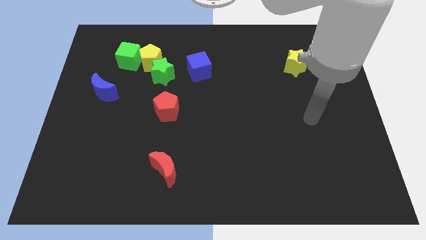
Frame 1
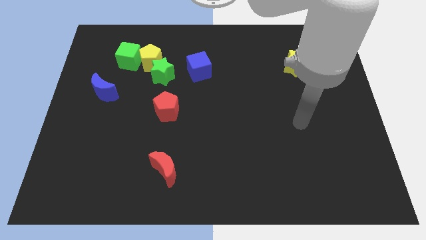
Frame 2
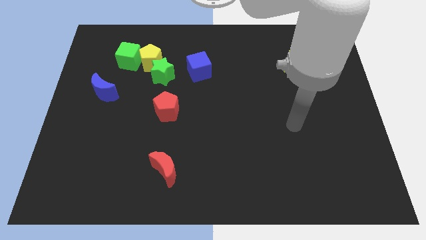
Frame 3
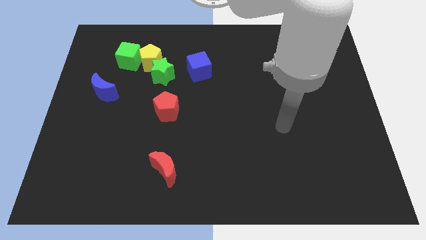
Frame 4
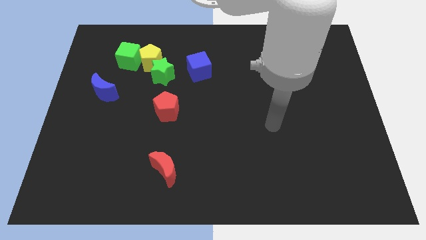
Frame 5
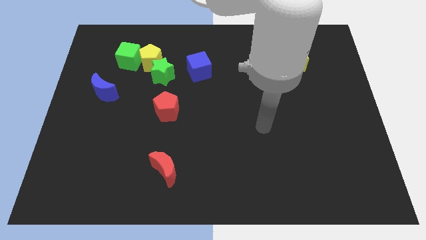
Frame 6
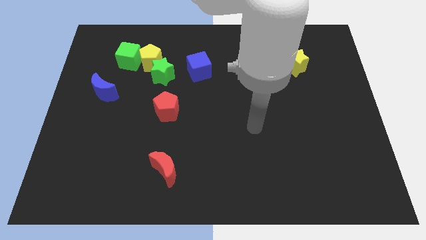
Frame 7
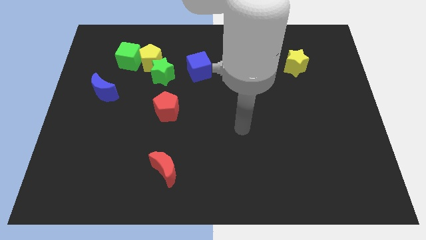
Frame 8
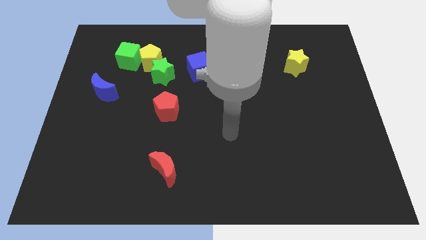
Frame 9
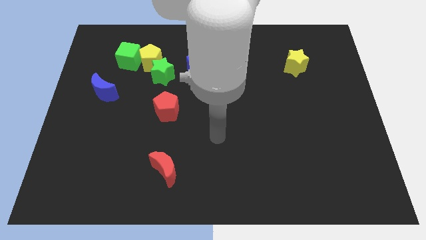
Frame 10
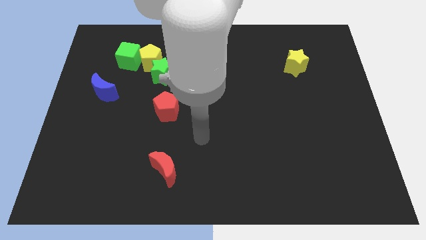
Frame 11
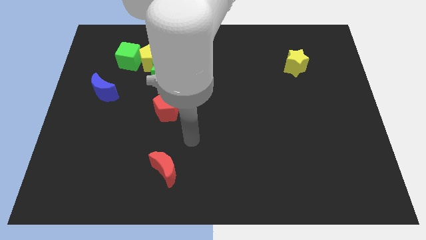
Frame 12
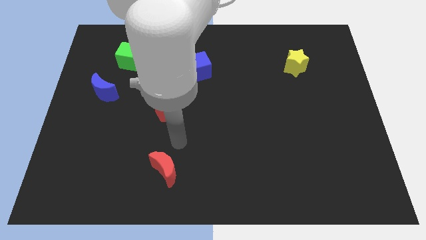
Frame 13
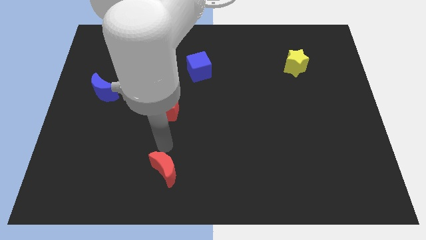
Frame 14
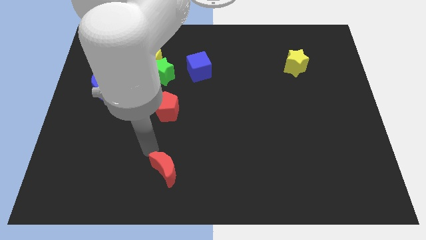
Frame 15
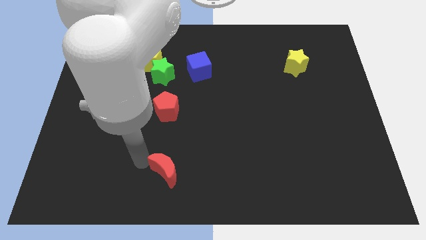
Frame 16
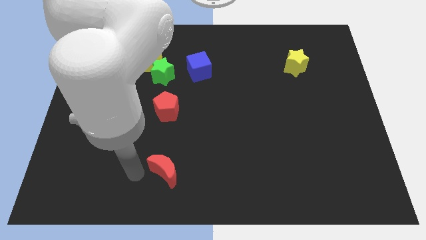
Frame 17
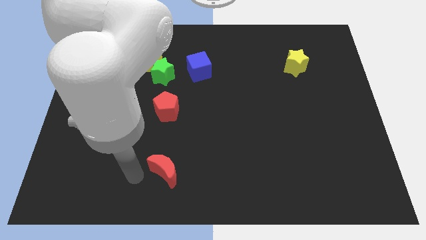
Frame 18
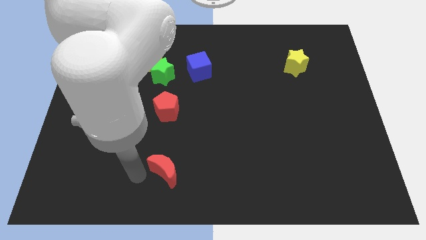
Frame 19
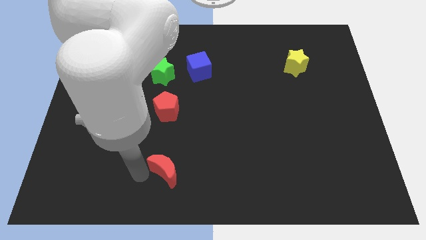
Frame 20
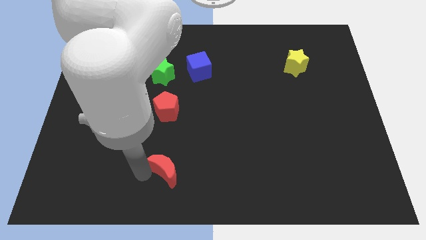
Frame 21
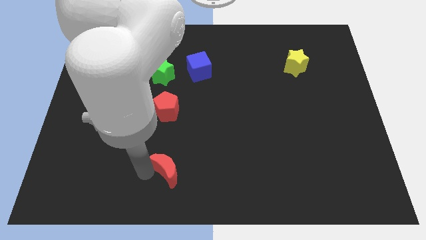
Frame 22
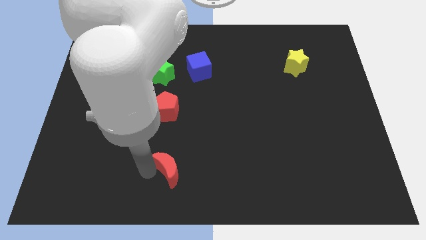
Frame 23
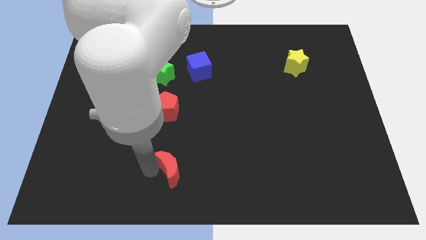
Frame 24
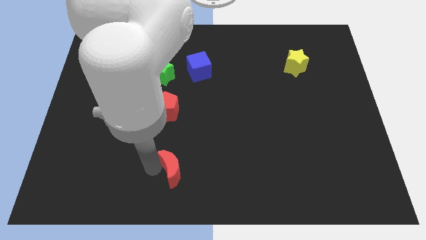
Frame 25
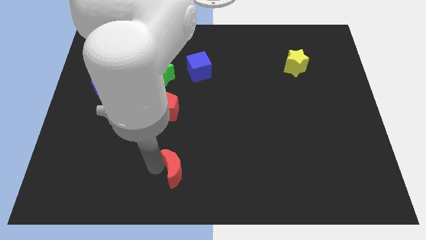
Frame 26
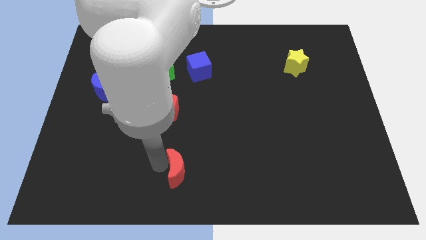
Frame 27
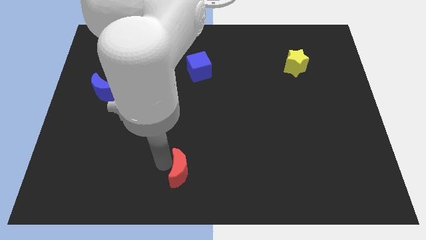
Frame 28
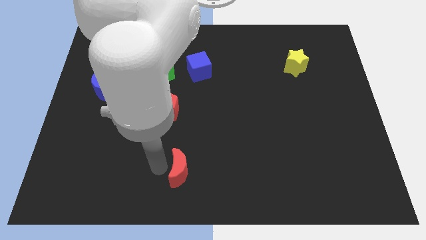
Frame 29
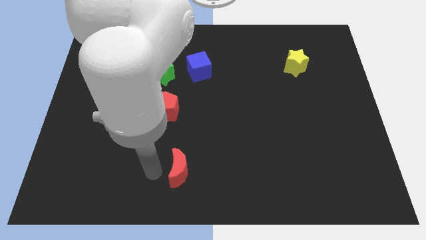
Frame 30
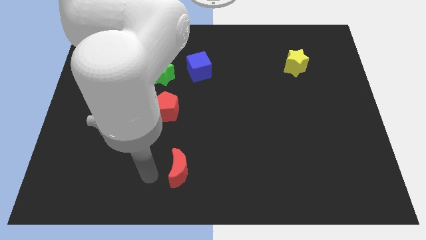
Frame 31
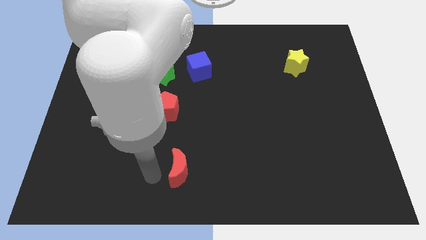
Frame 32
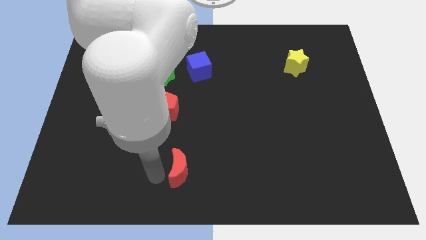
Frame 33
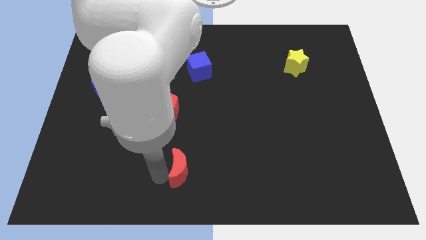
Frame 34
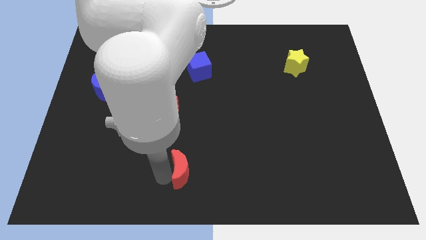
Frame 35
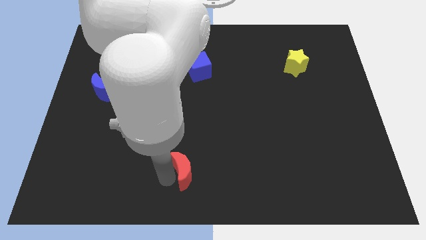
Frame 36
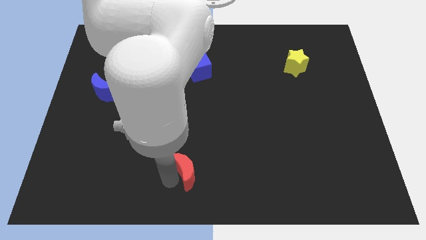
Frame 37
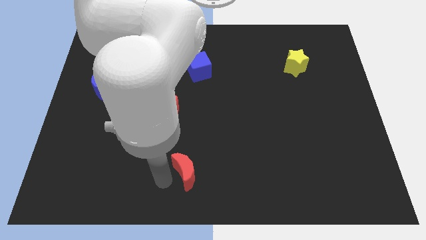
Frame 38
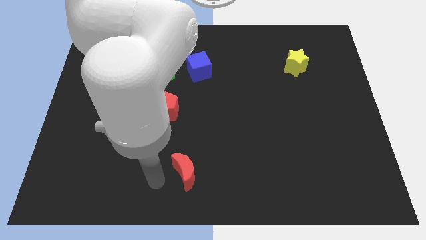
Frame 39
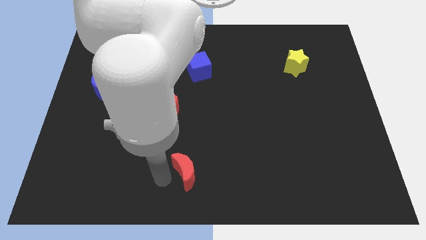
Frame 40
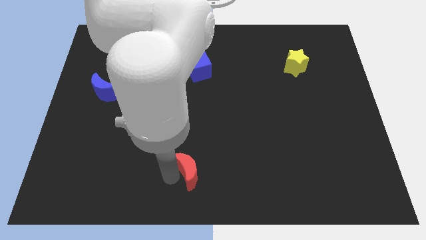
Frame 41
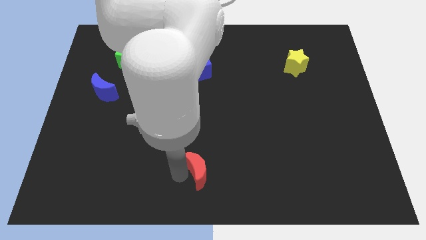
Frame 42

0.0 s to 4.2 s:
slide the red moon somewhat right

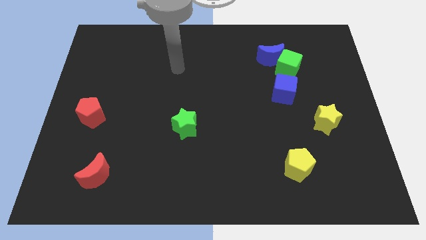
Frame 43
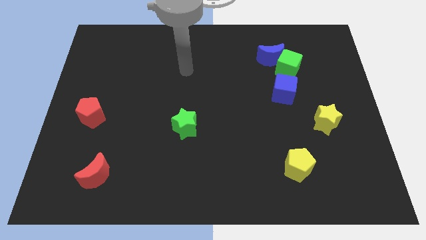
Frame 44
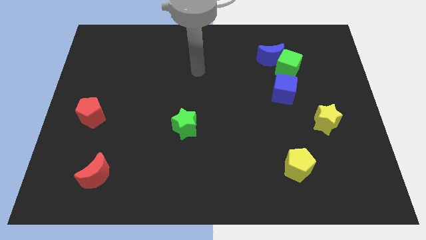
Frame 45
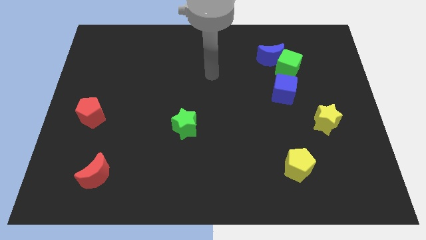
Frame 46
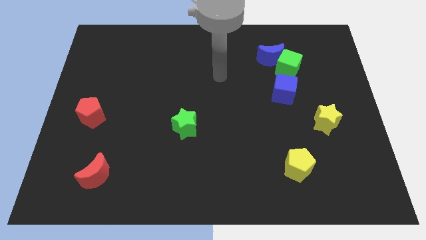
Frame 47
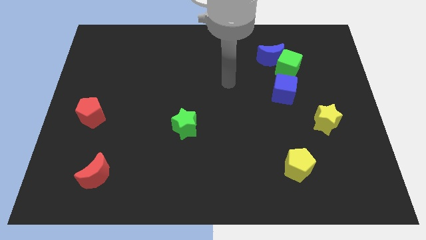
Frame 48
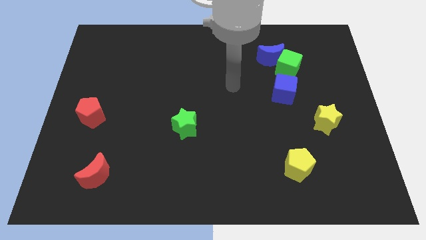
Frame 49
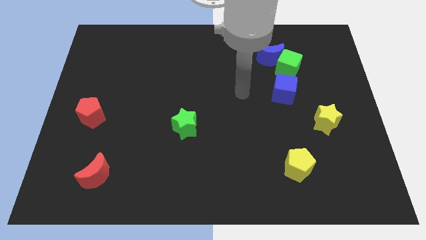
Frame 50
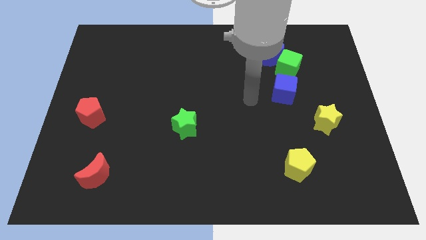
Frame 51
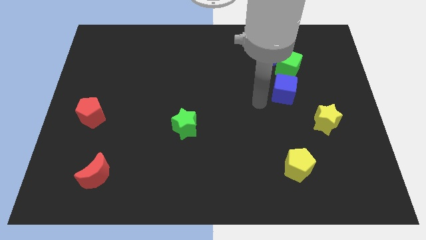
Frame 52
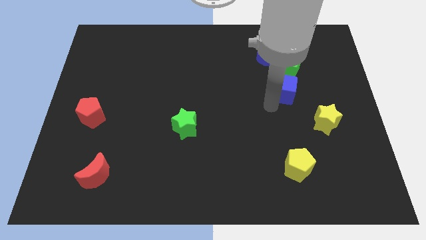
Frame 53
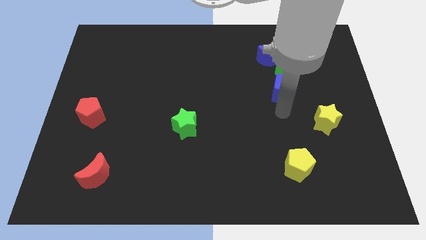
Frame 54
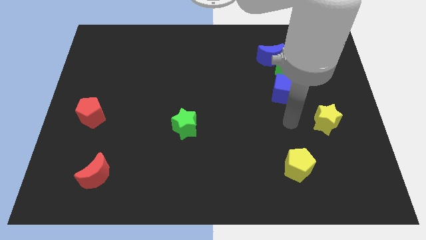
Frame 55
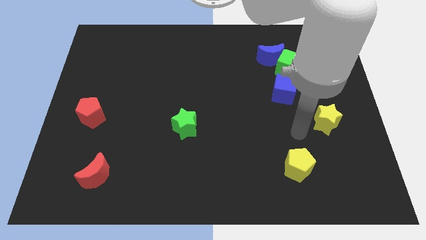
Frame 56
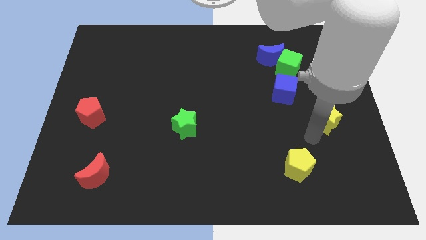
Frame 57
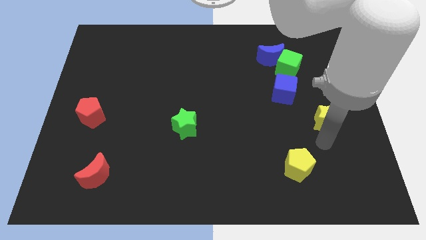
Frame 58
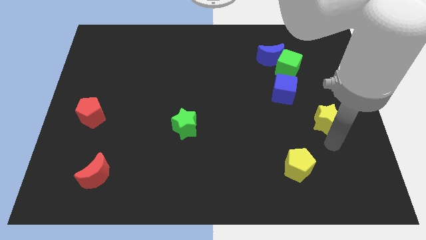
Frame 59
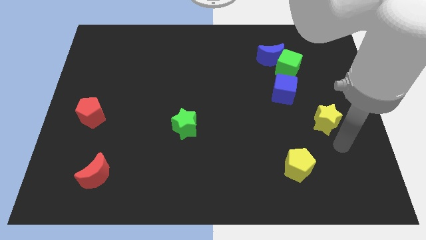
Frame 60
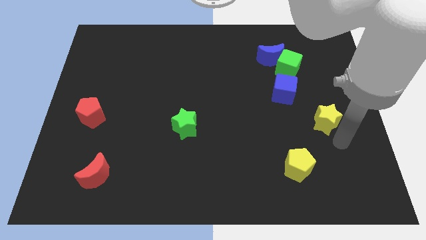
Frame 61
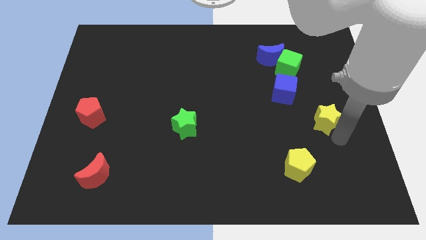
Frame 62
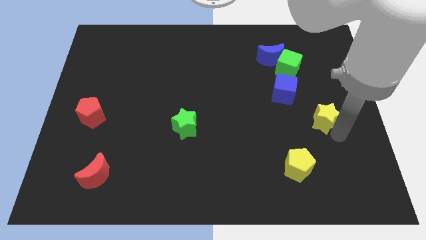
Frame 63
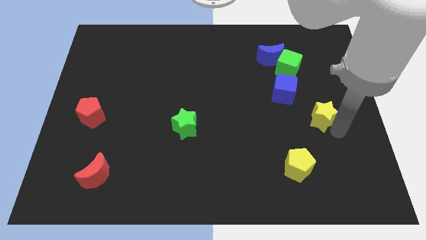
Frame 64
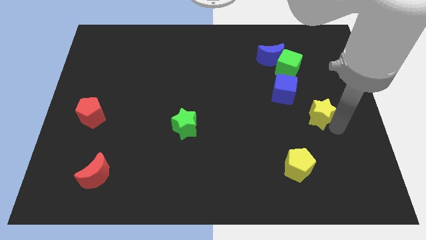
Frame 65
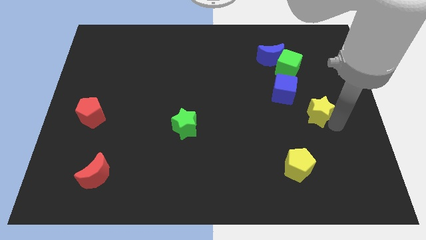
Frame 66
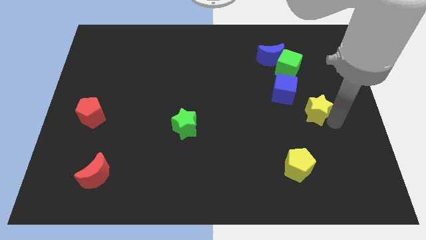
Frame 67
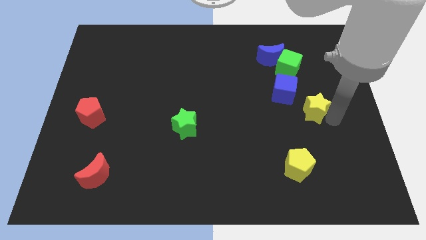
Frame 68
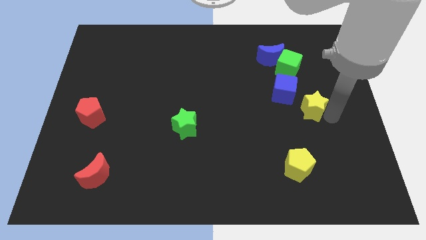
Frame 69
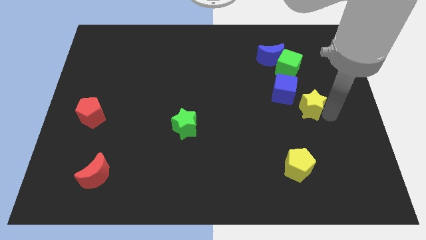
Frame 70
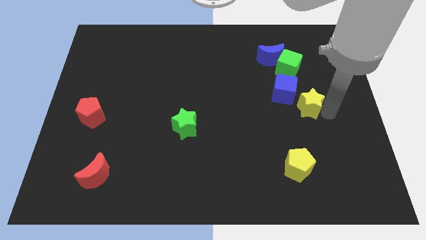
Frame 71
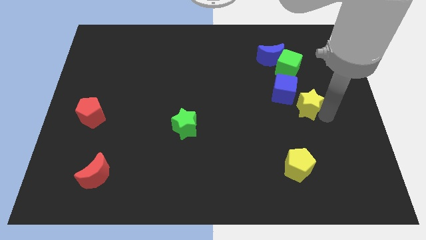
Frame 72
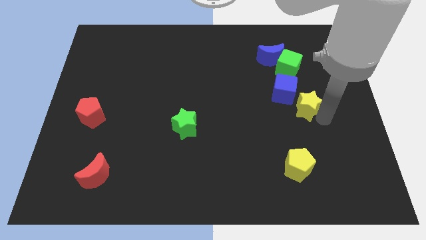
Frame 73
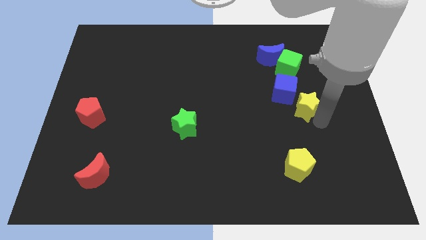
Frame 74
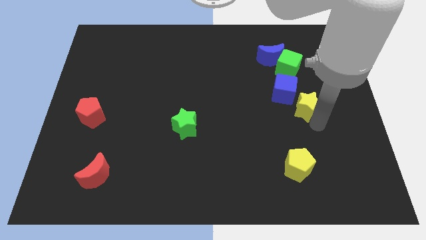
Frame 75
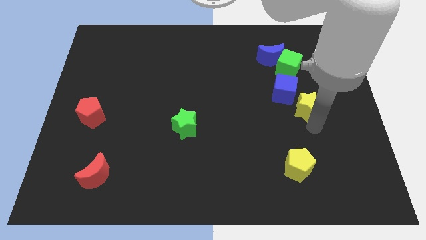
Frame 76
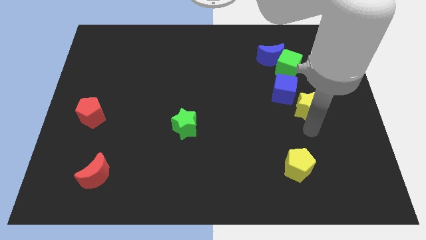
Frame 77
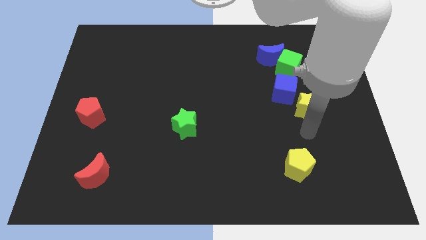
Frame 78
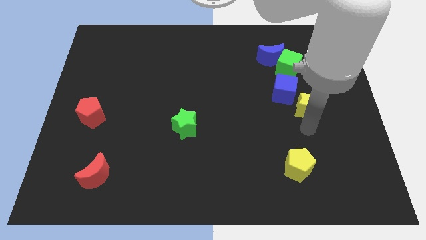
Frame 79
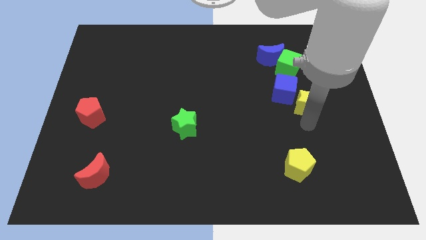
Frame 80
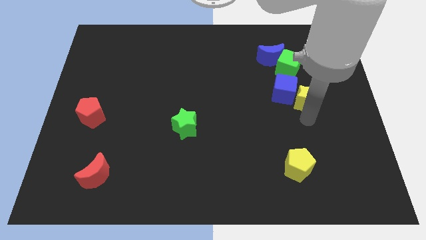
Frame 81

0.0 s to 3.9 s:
slightly slide the yellow star upwards and to the left diagonally

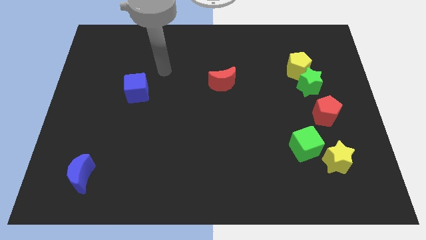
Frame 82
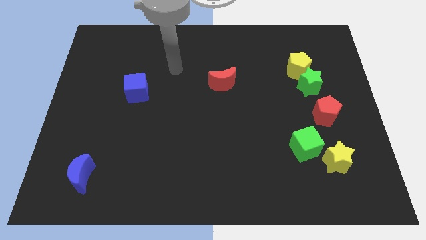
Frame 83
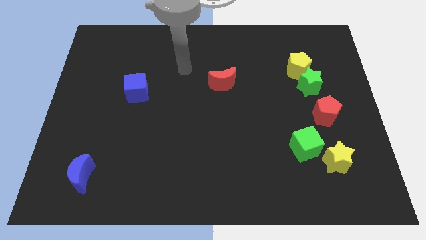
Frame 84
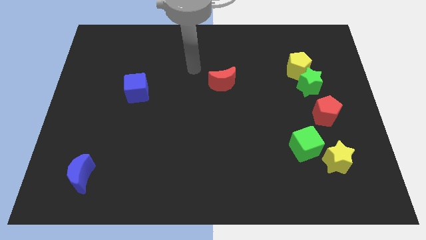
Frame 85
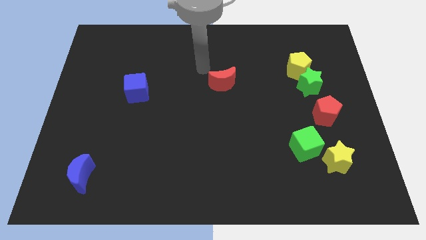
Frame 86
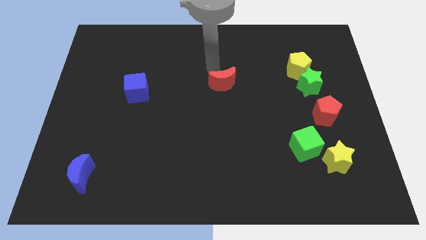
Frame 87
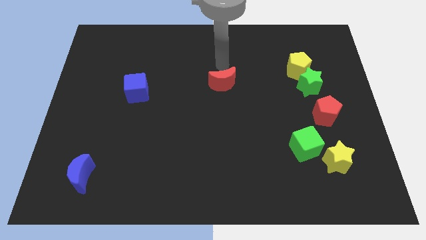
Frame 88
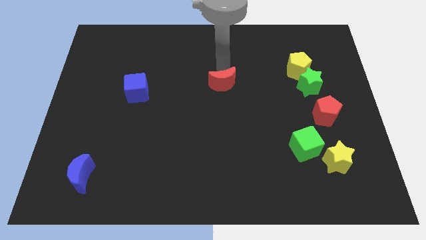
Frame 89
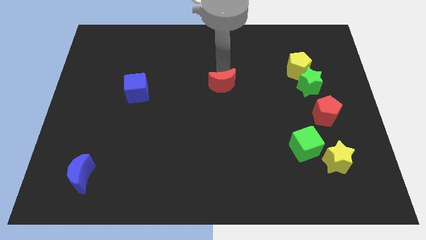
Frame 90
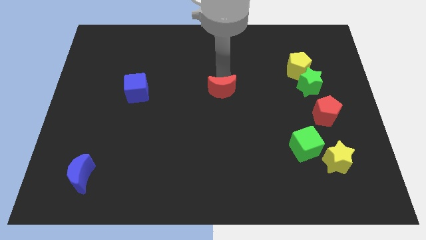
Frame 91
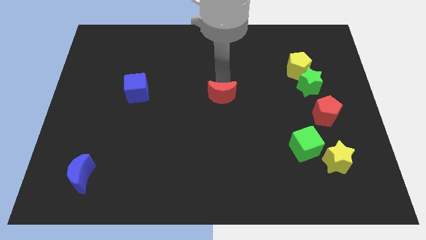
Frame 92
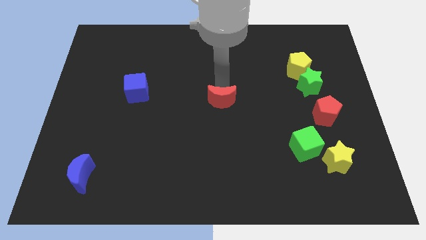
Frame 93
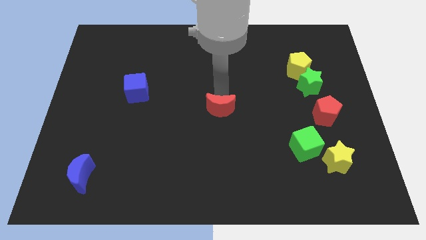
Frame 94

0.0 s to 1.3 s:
slightly push the red moon down
